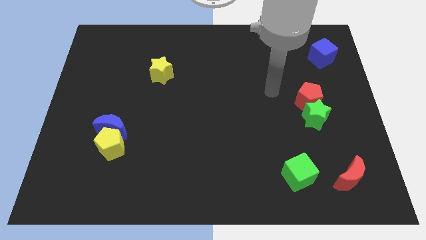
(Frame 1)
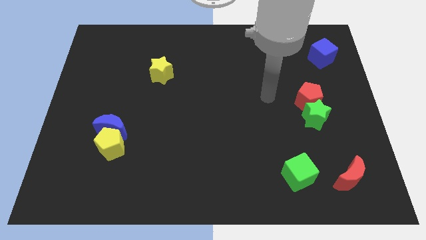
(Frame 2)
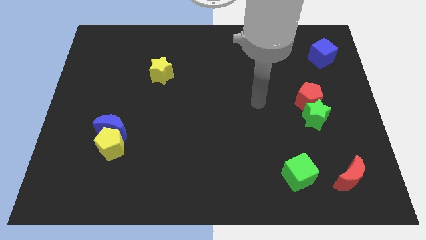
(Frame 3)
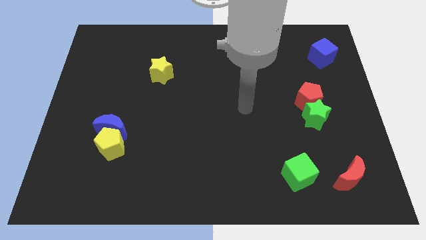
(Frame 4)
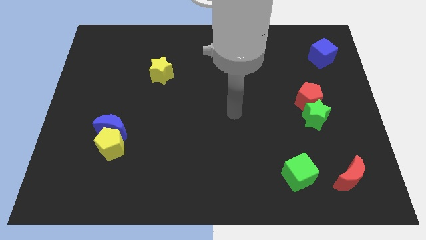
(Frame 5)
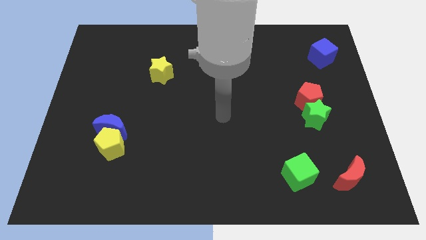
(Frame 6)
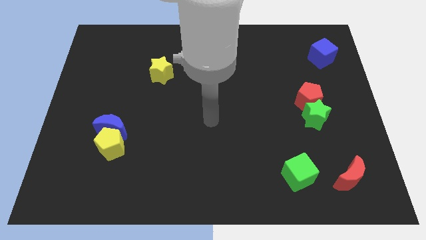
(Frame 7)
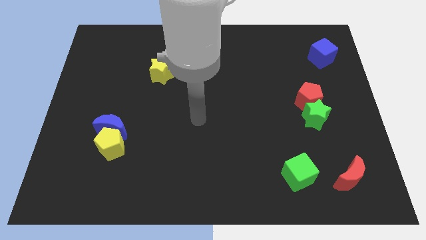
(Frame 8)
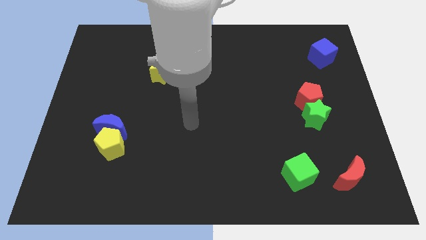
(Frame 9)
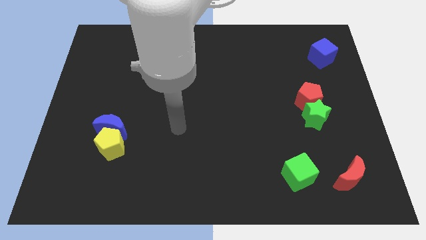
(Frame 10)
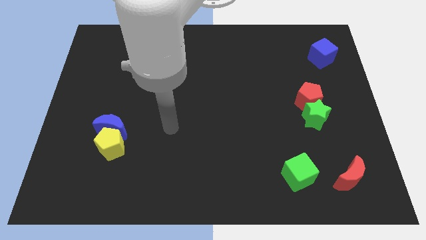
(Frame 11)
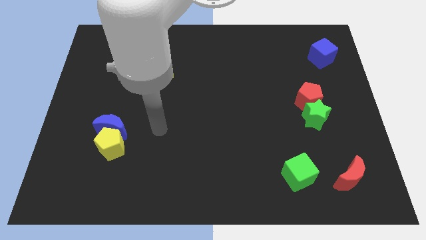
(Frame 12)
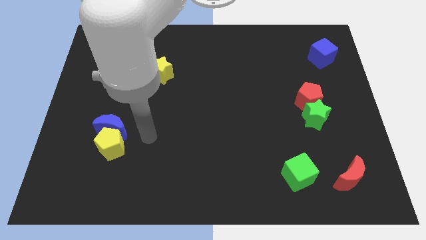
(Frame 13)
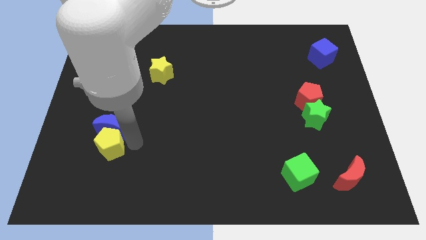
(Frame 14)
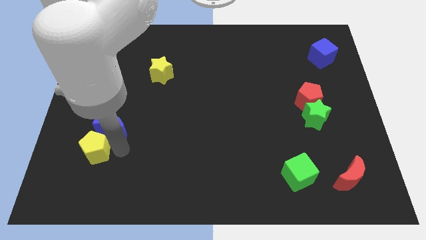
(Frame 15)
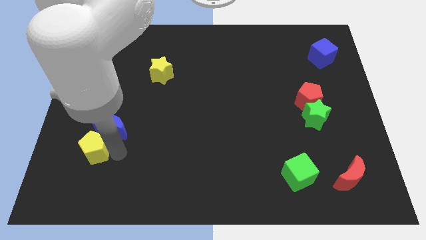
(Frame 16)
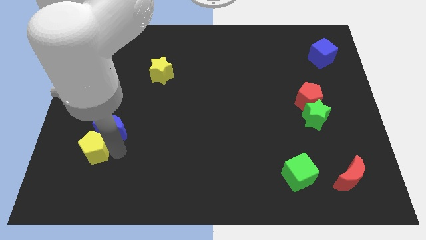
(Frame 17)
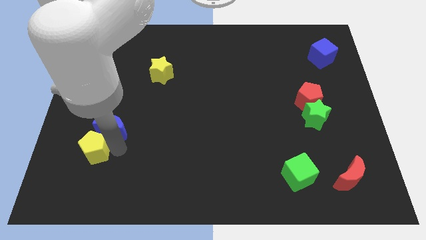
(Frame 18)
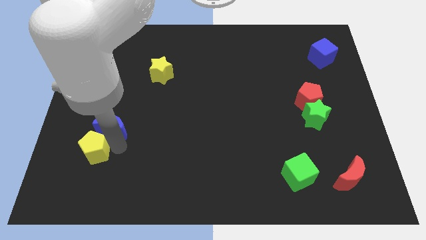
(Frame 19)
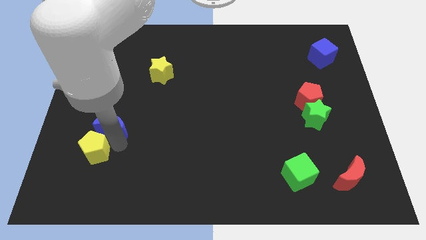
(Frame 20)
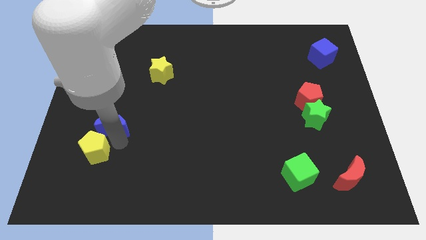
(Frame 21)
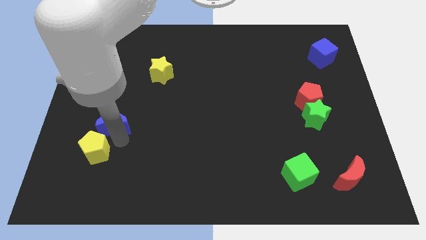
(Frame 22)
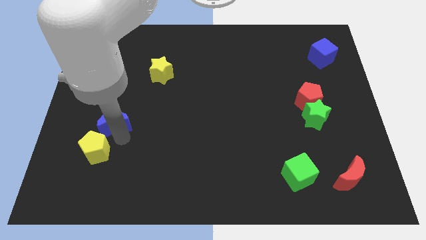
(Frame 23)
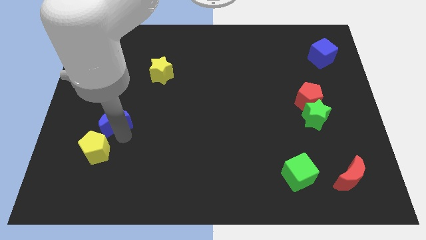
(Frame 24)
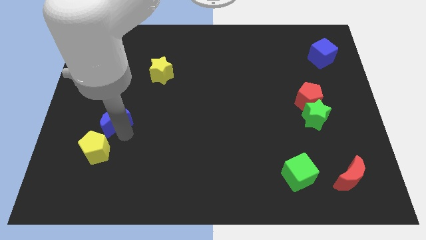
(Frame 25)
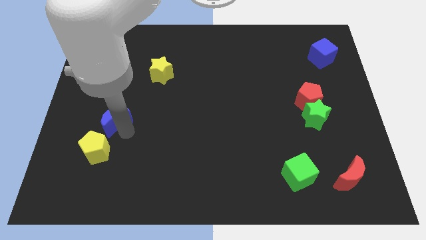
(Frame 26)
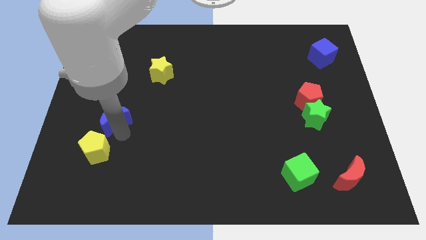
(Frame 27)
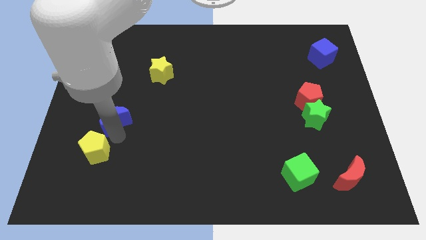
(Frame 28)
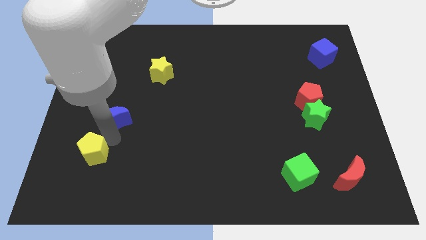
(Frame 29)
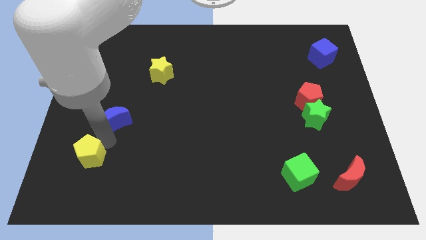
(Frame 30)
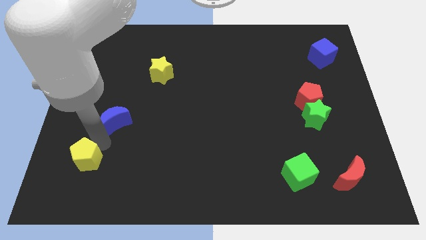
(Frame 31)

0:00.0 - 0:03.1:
pull the blue moon apart from the yellow pentagon

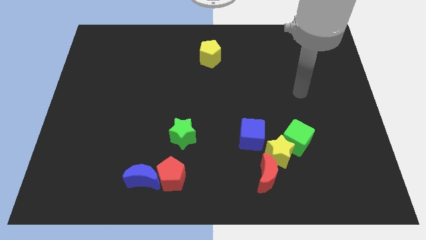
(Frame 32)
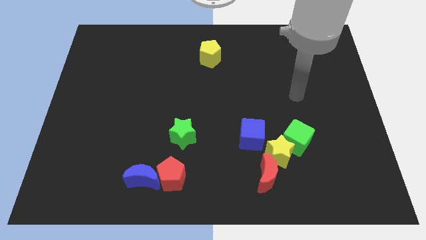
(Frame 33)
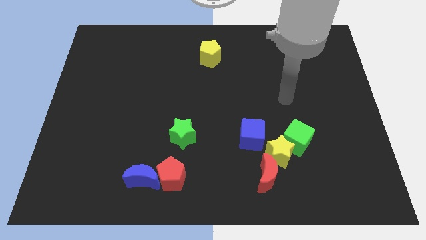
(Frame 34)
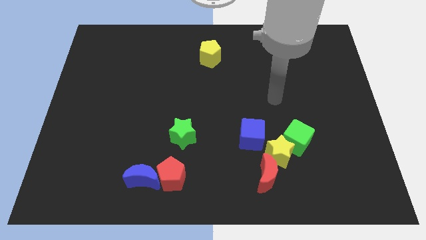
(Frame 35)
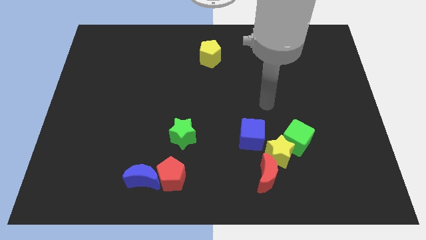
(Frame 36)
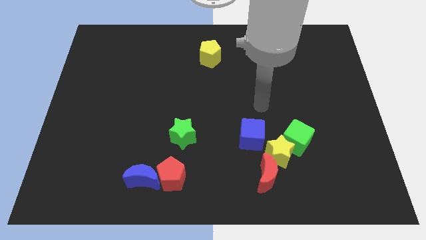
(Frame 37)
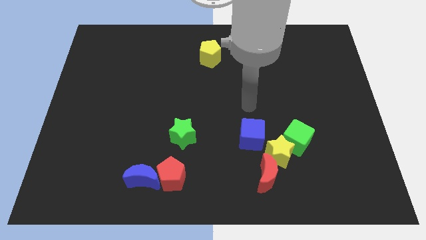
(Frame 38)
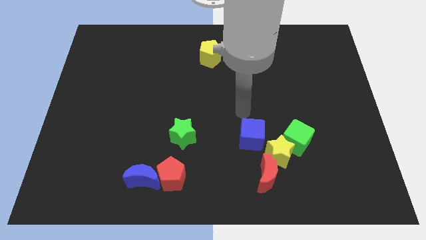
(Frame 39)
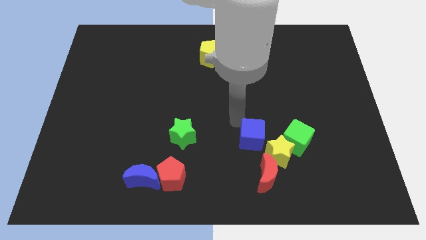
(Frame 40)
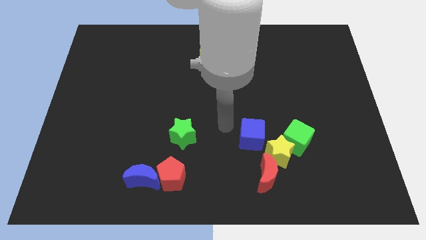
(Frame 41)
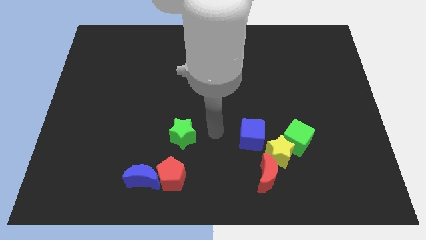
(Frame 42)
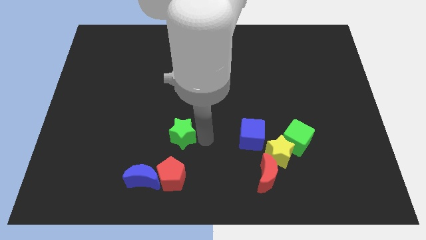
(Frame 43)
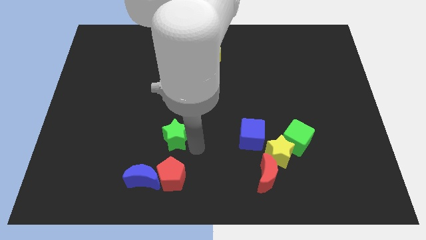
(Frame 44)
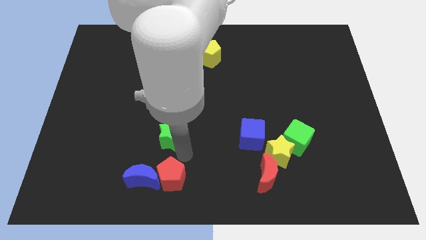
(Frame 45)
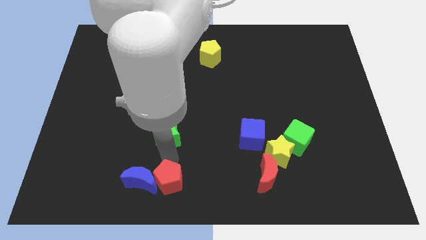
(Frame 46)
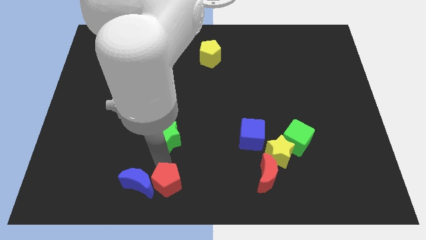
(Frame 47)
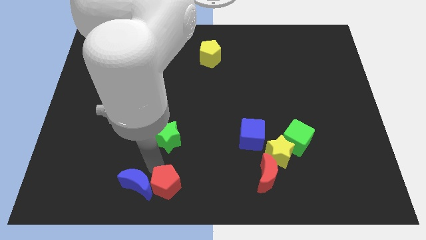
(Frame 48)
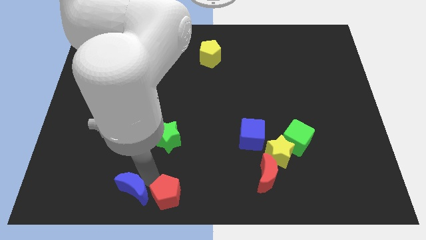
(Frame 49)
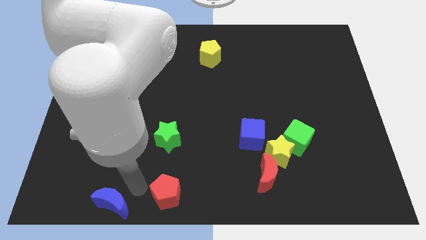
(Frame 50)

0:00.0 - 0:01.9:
pull the red pentagon apart from the blue moon

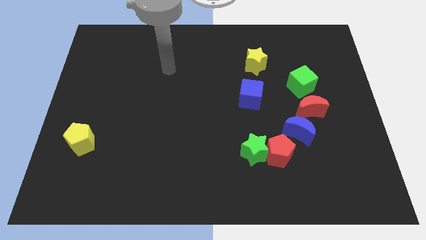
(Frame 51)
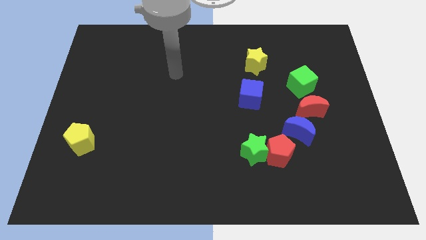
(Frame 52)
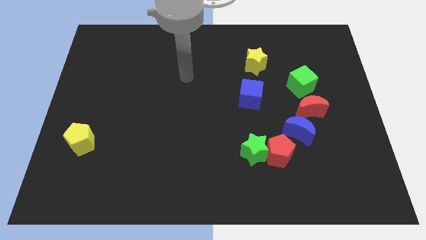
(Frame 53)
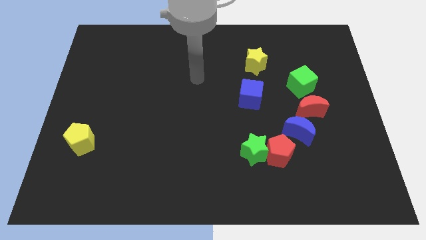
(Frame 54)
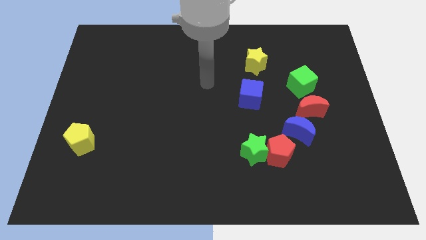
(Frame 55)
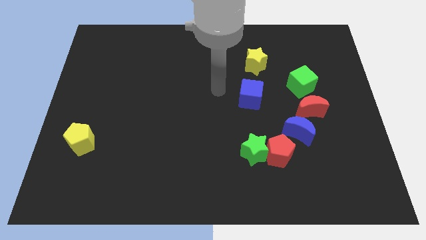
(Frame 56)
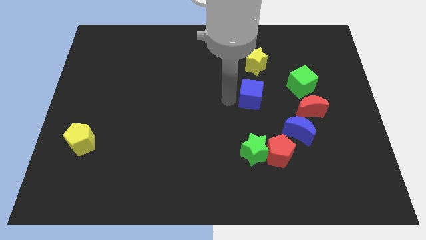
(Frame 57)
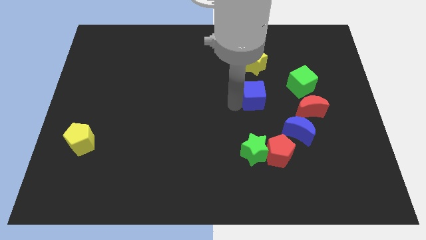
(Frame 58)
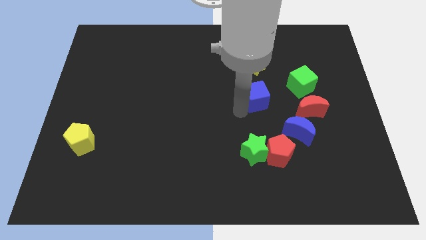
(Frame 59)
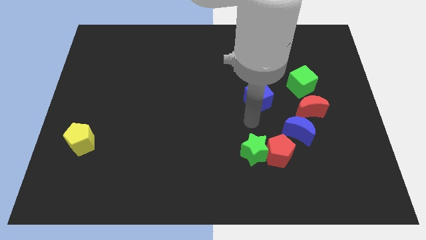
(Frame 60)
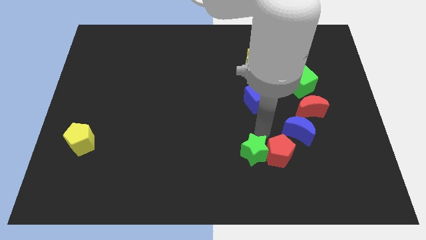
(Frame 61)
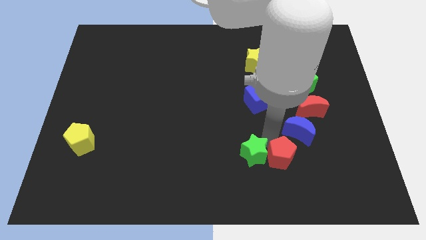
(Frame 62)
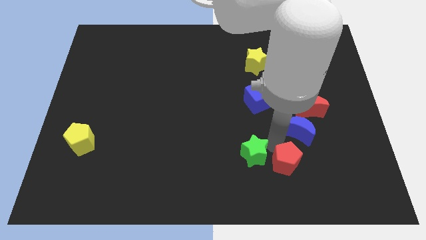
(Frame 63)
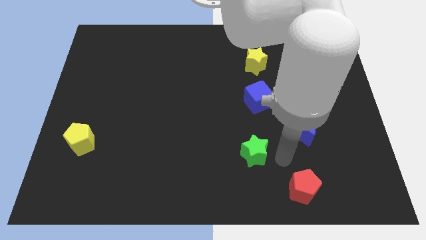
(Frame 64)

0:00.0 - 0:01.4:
separate the green star from the red pentagon

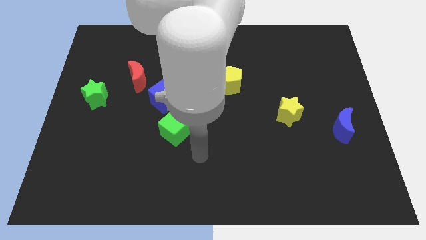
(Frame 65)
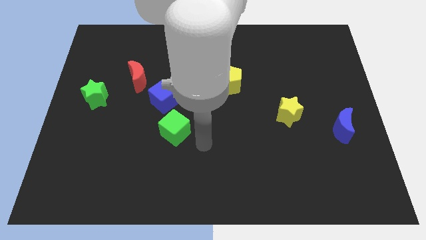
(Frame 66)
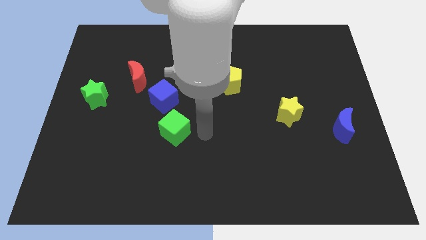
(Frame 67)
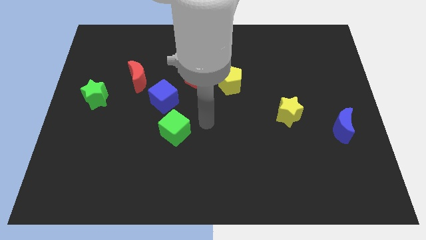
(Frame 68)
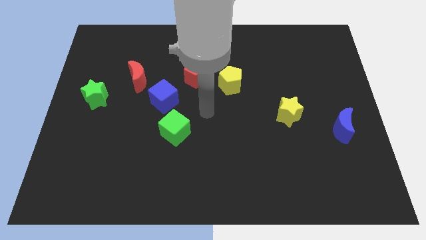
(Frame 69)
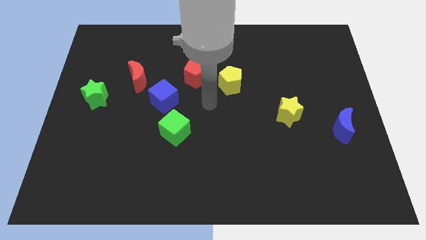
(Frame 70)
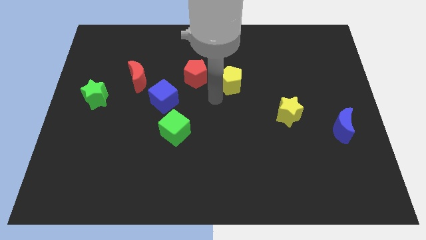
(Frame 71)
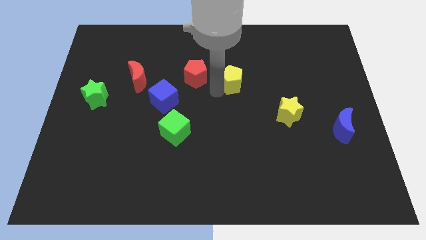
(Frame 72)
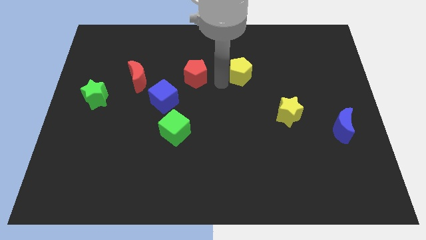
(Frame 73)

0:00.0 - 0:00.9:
separate the red pentagon from the yellow pentagon

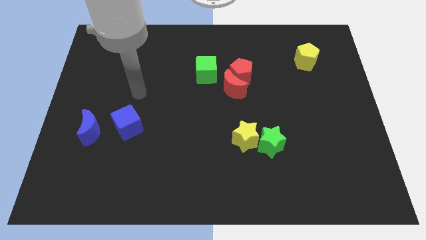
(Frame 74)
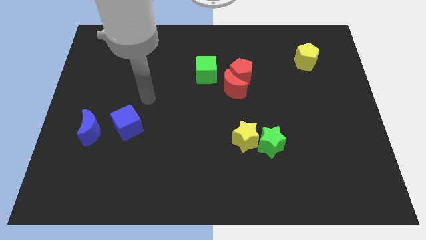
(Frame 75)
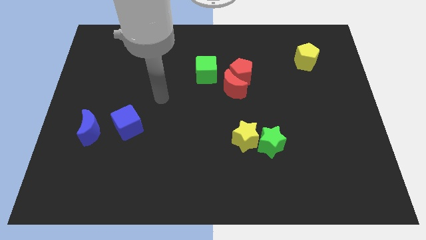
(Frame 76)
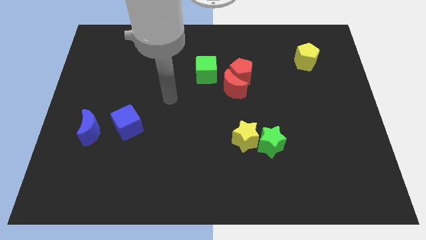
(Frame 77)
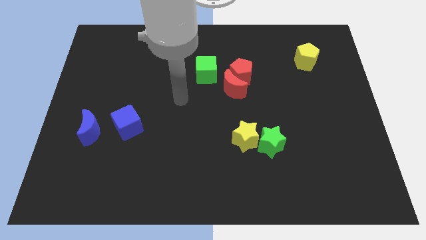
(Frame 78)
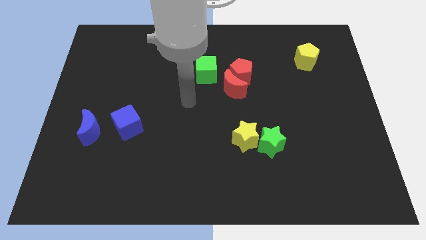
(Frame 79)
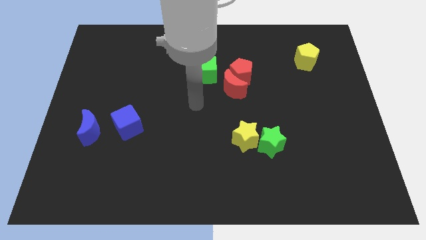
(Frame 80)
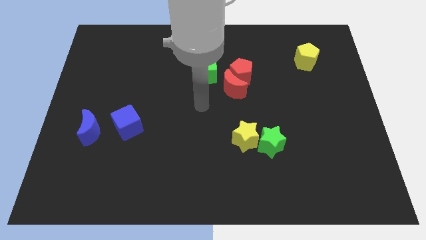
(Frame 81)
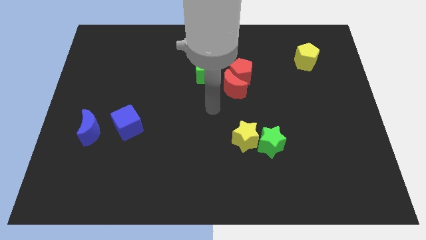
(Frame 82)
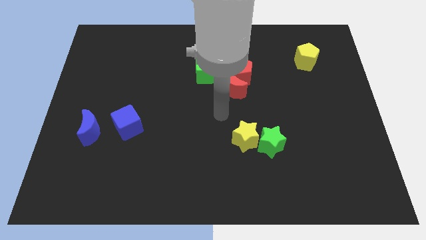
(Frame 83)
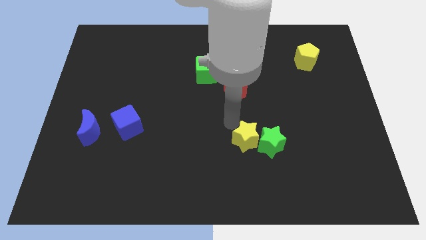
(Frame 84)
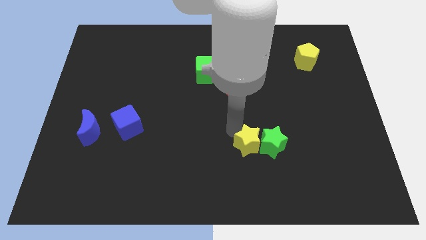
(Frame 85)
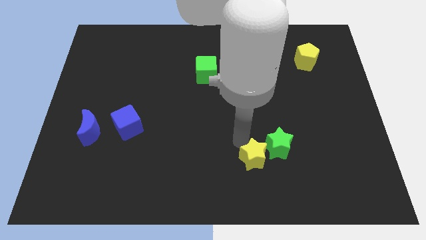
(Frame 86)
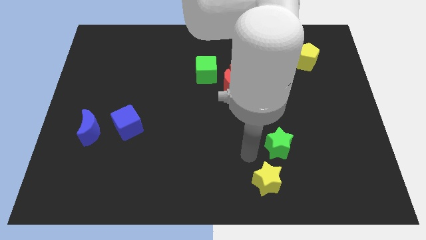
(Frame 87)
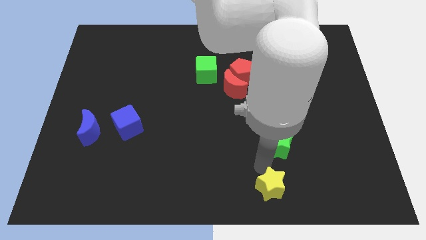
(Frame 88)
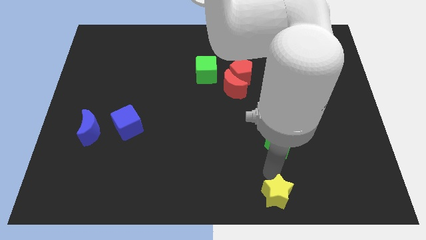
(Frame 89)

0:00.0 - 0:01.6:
separate the green star from the yellow star

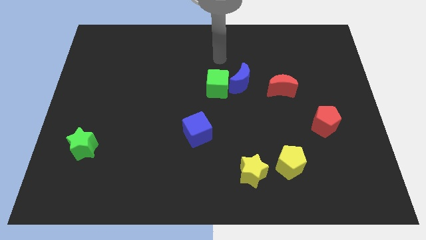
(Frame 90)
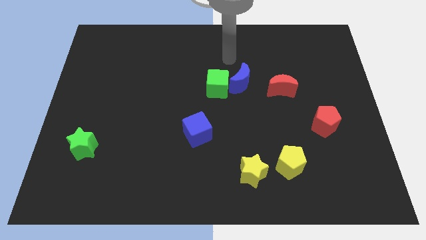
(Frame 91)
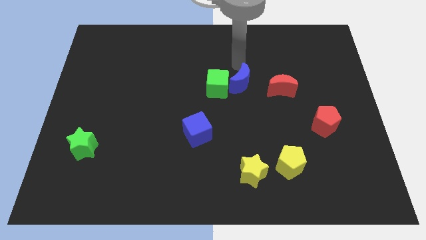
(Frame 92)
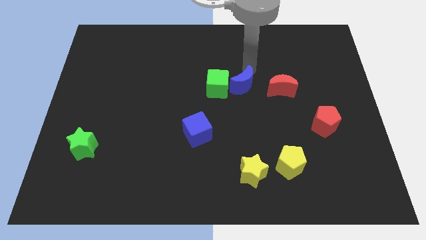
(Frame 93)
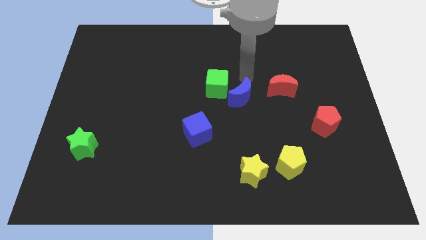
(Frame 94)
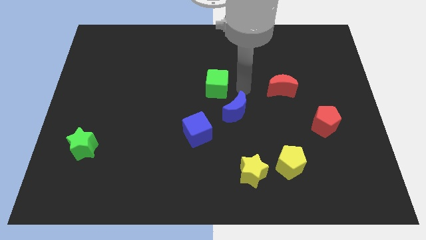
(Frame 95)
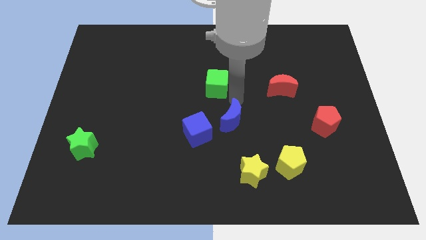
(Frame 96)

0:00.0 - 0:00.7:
move the green cube away from the blue moon
